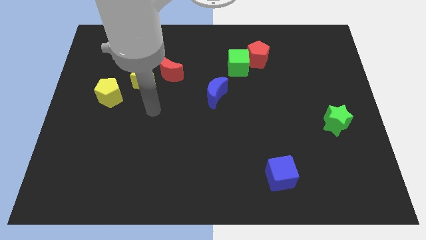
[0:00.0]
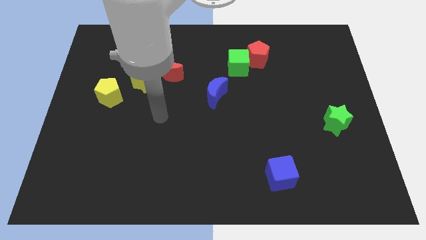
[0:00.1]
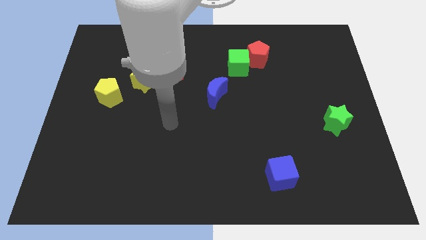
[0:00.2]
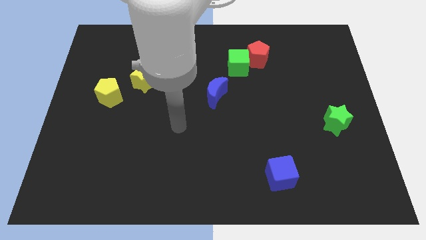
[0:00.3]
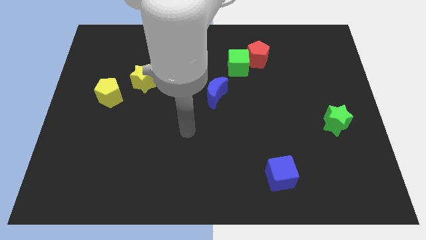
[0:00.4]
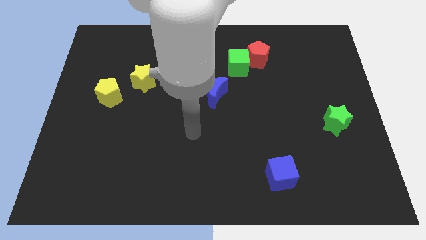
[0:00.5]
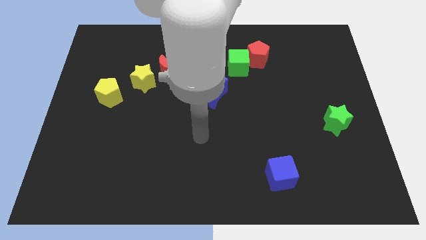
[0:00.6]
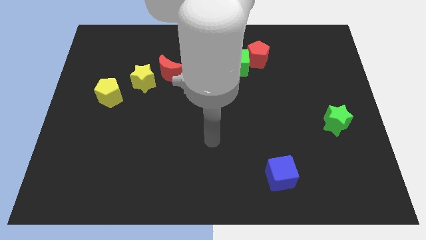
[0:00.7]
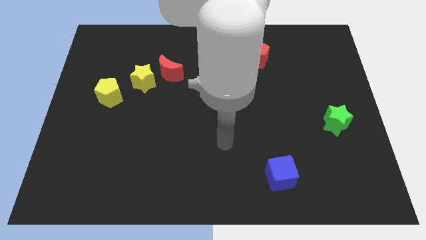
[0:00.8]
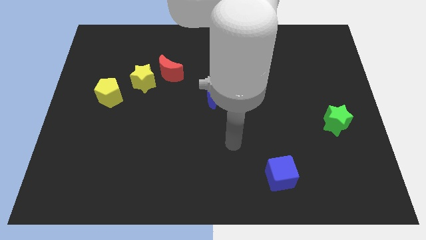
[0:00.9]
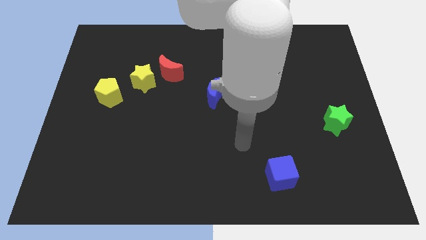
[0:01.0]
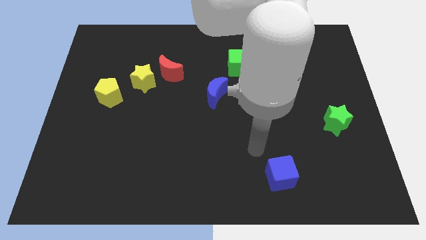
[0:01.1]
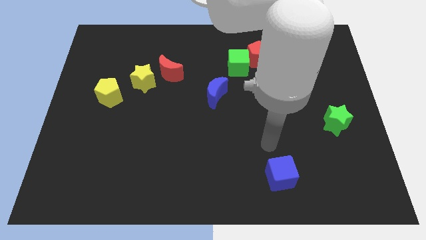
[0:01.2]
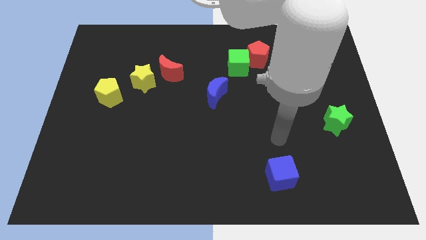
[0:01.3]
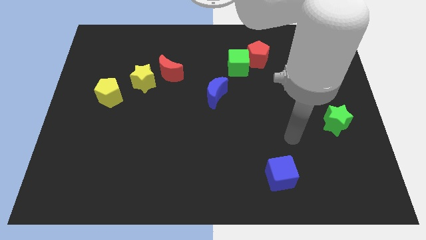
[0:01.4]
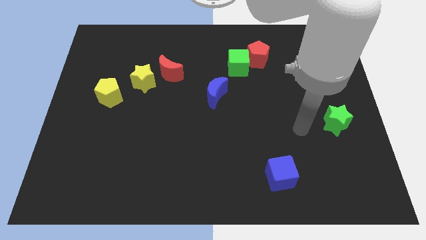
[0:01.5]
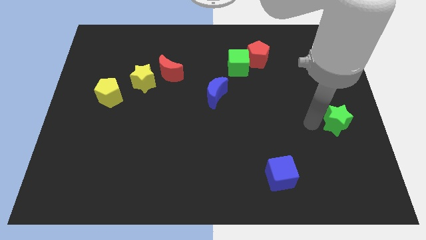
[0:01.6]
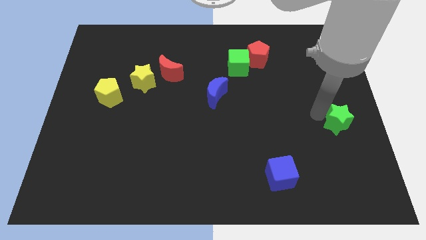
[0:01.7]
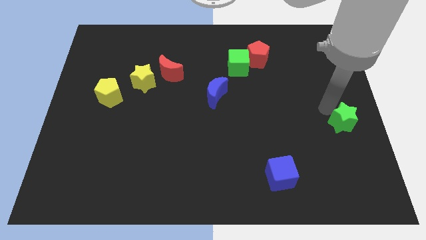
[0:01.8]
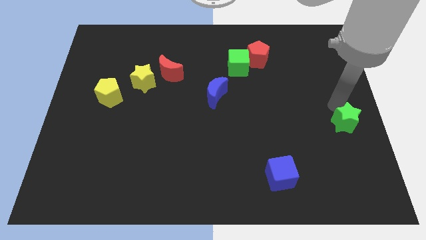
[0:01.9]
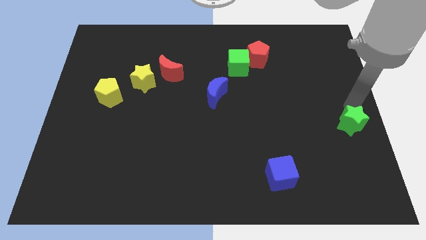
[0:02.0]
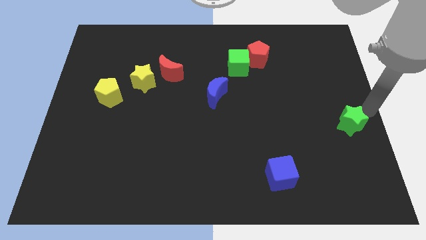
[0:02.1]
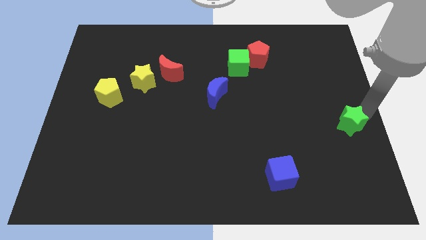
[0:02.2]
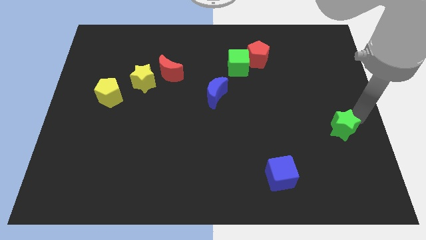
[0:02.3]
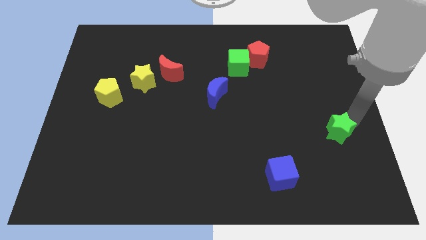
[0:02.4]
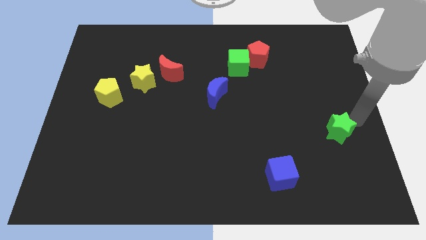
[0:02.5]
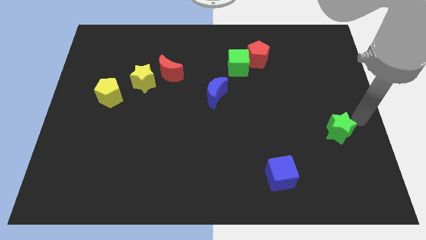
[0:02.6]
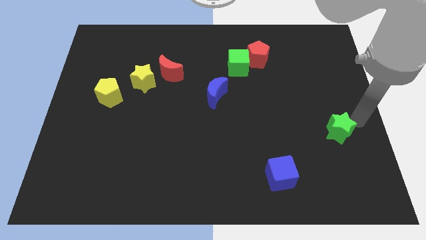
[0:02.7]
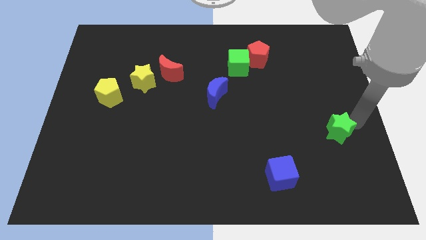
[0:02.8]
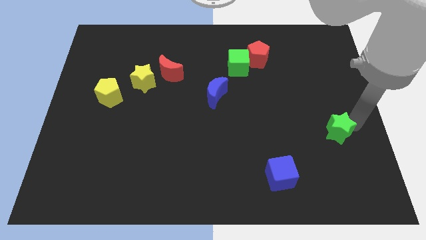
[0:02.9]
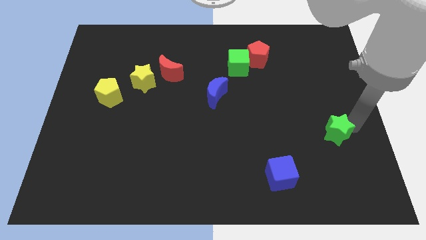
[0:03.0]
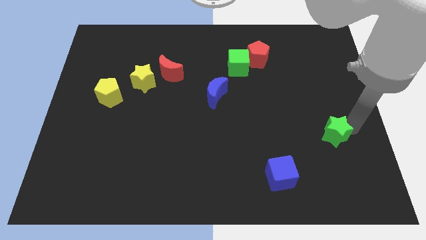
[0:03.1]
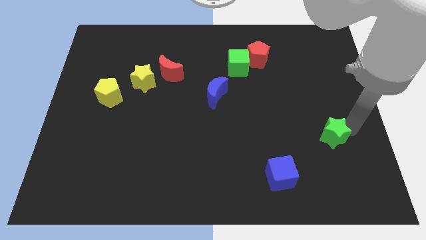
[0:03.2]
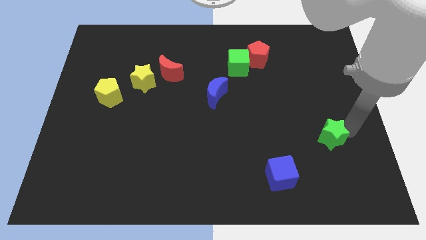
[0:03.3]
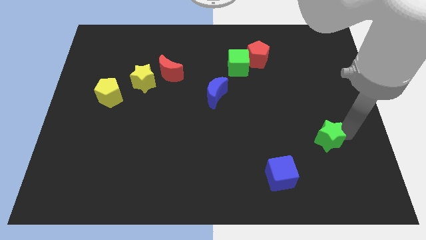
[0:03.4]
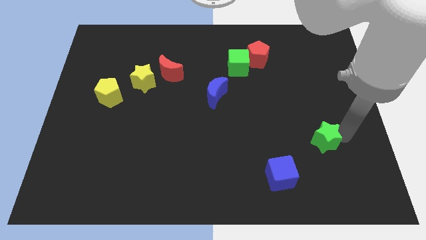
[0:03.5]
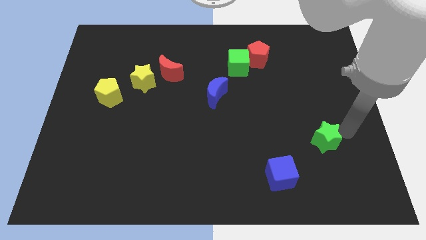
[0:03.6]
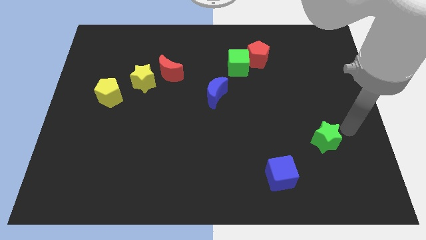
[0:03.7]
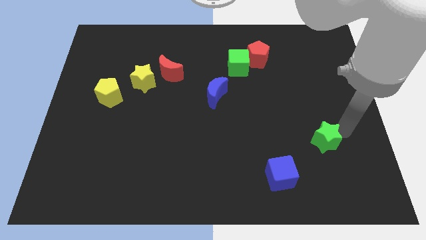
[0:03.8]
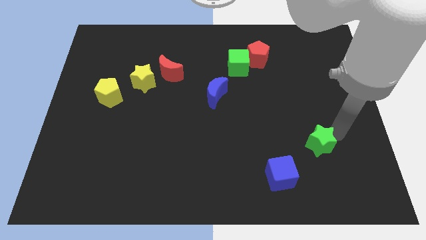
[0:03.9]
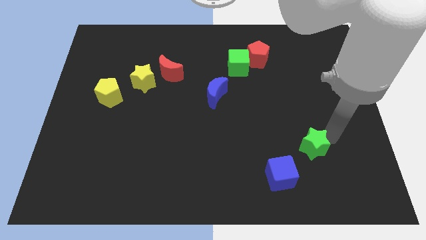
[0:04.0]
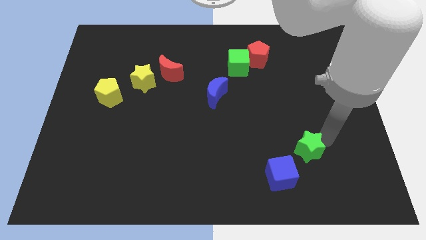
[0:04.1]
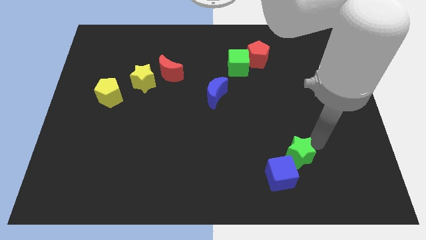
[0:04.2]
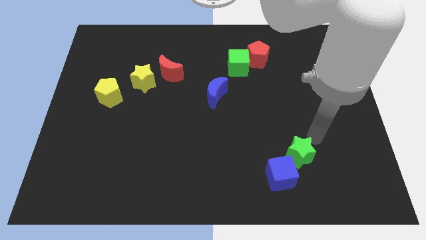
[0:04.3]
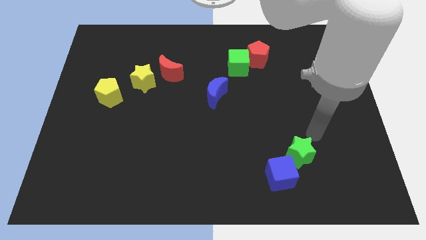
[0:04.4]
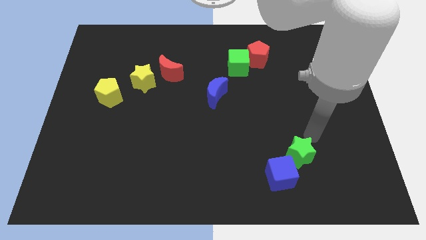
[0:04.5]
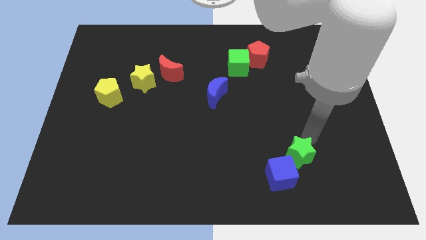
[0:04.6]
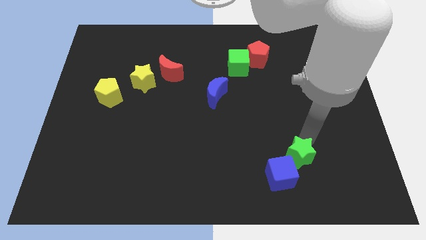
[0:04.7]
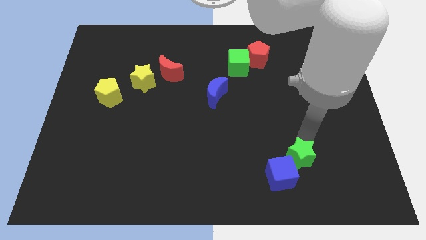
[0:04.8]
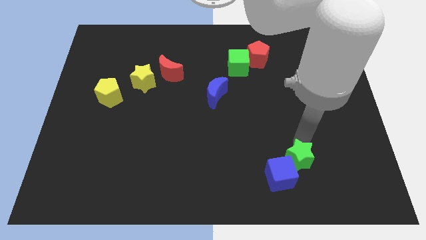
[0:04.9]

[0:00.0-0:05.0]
slide the green star to the blue cube

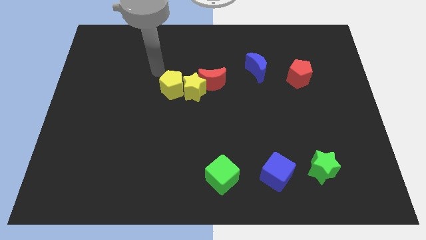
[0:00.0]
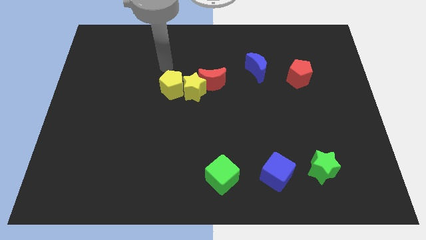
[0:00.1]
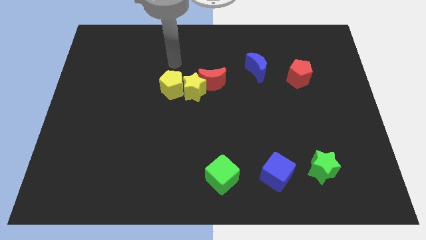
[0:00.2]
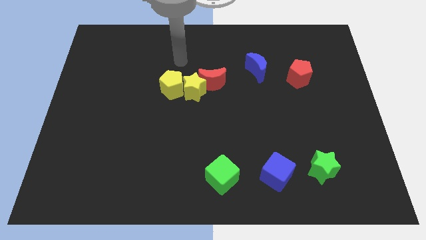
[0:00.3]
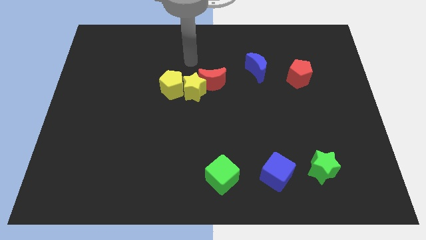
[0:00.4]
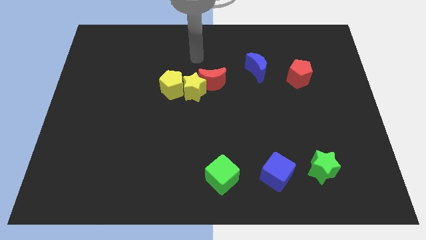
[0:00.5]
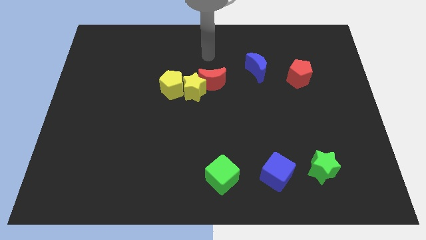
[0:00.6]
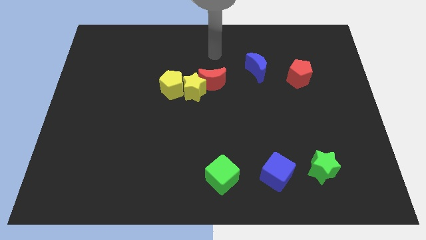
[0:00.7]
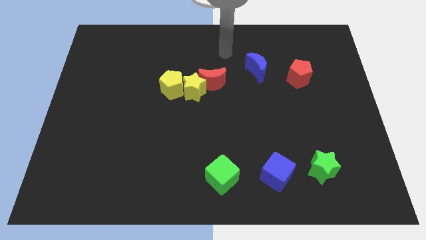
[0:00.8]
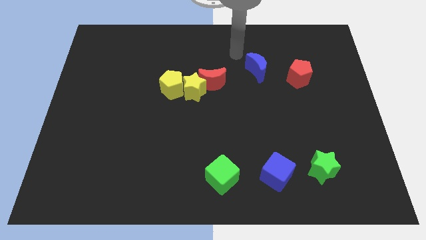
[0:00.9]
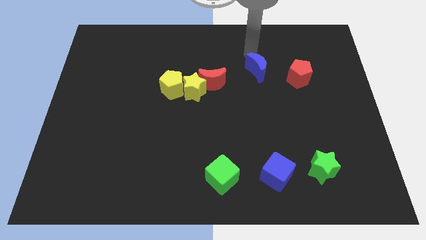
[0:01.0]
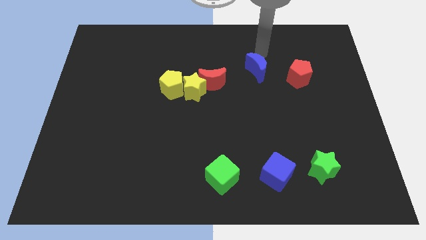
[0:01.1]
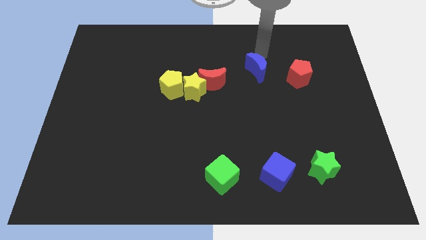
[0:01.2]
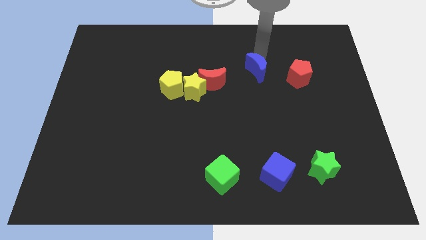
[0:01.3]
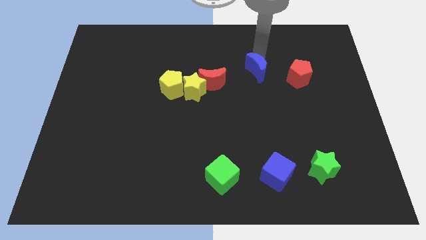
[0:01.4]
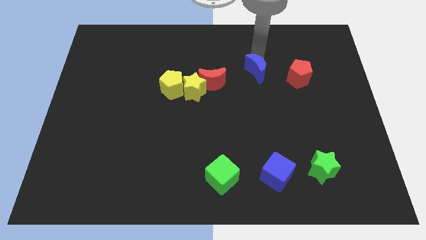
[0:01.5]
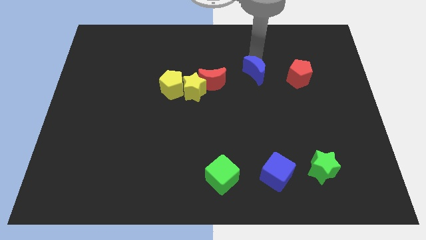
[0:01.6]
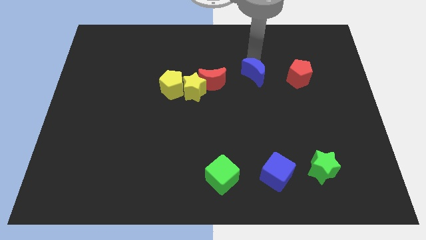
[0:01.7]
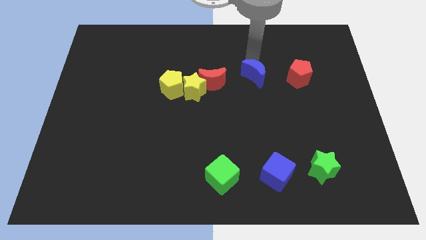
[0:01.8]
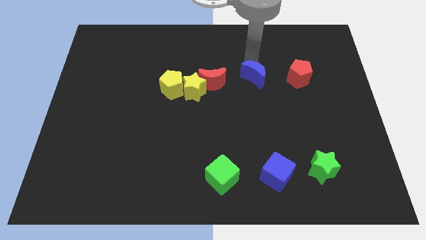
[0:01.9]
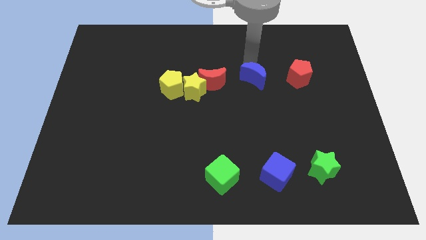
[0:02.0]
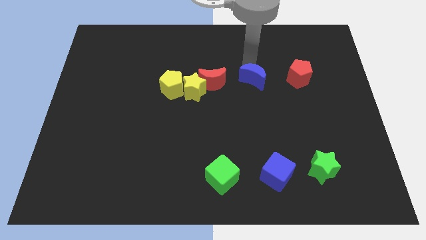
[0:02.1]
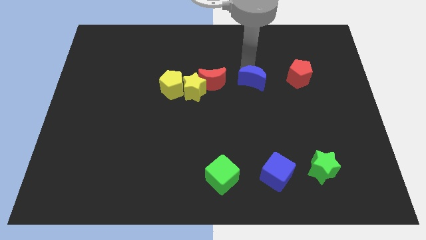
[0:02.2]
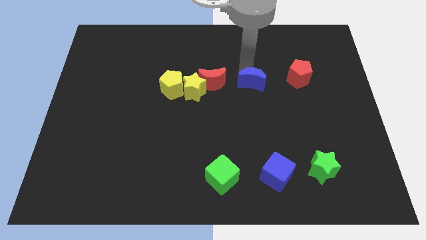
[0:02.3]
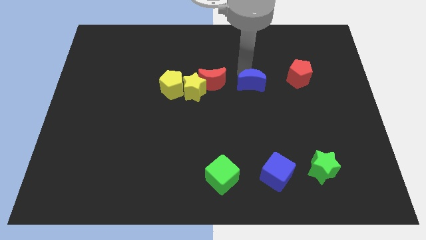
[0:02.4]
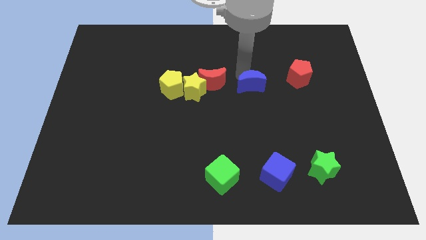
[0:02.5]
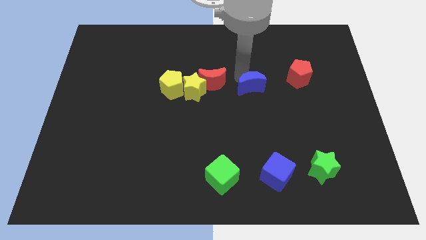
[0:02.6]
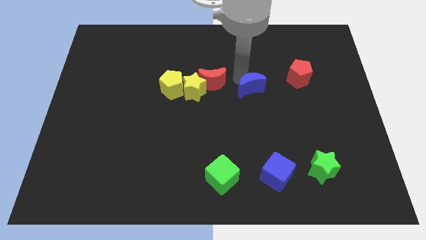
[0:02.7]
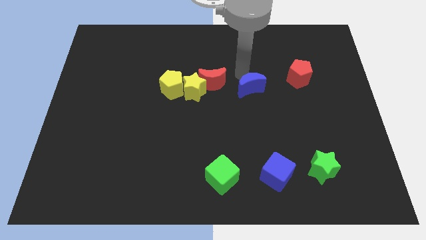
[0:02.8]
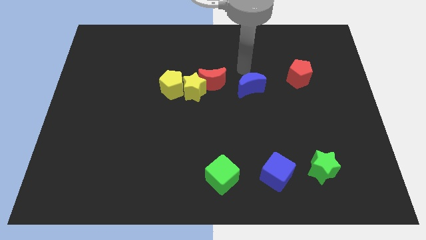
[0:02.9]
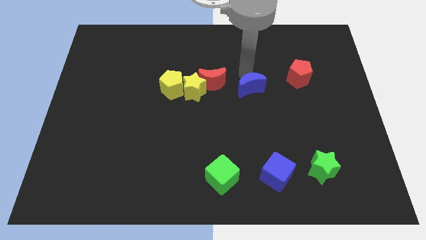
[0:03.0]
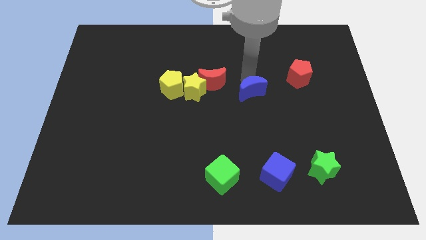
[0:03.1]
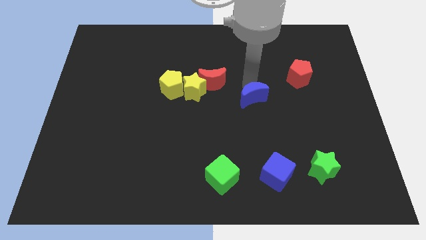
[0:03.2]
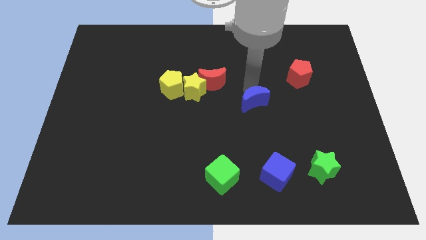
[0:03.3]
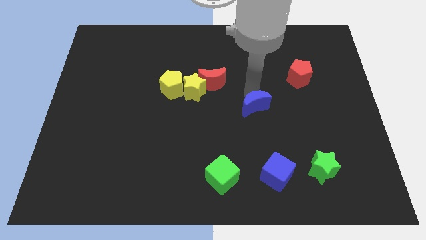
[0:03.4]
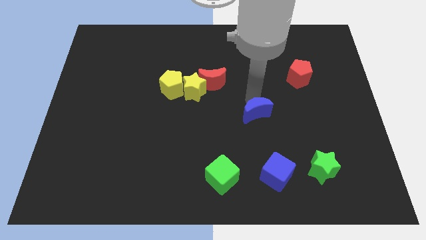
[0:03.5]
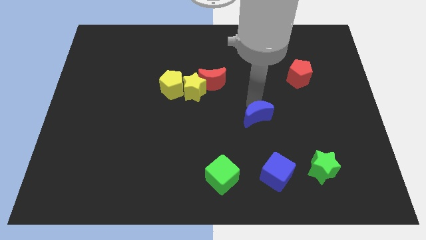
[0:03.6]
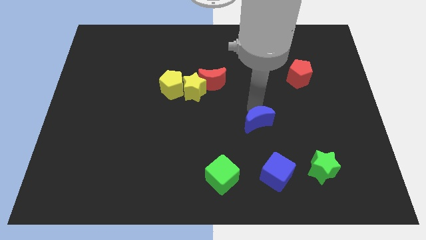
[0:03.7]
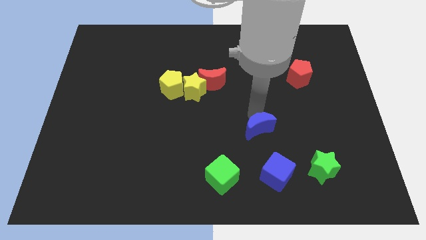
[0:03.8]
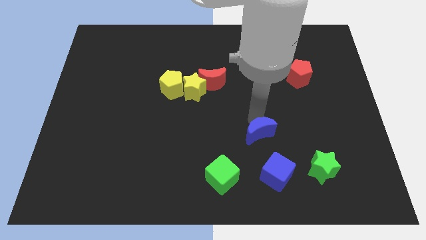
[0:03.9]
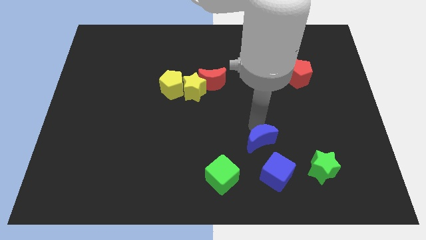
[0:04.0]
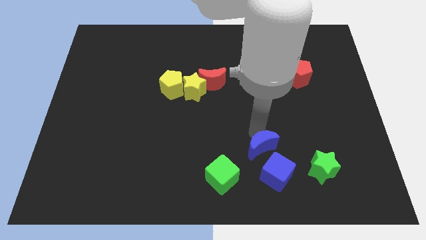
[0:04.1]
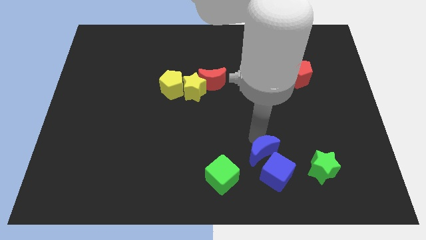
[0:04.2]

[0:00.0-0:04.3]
move the blue moon next to the blue cube
